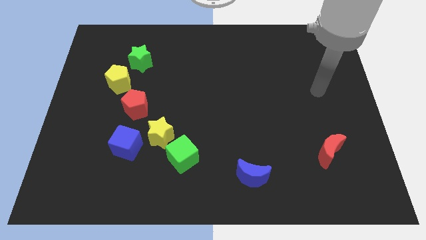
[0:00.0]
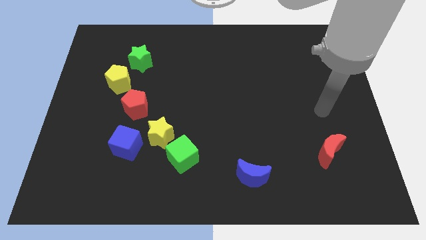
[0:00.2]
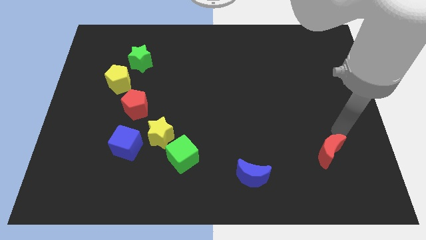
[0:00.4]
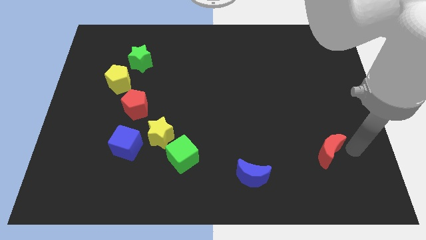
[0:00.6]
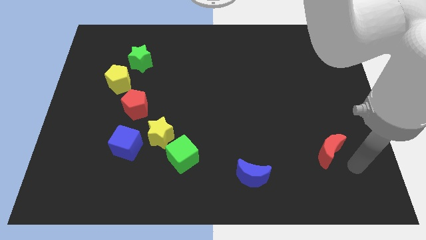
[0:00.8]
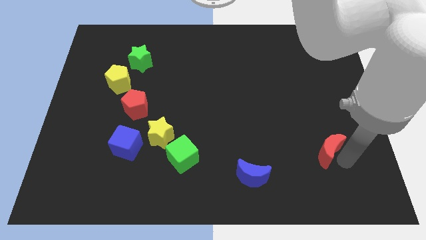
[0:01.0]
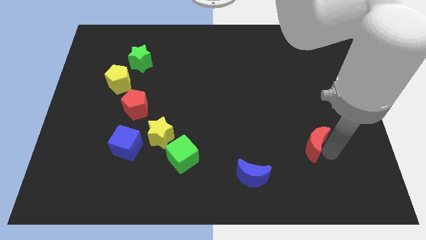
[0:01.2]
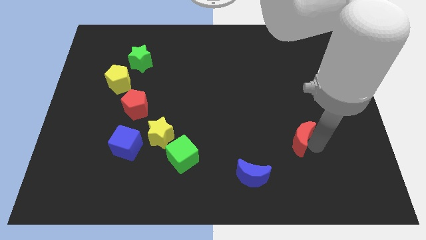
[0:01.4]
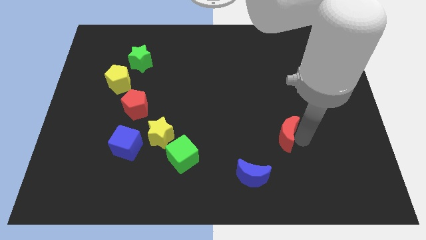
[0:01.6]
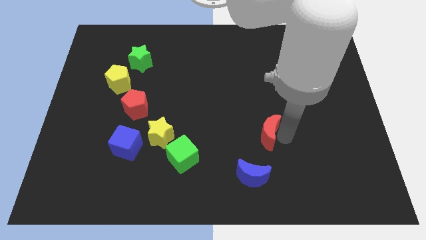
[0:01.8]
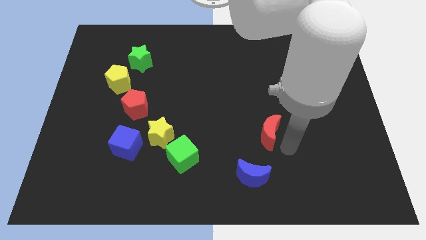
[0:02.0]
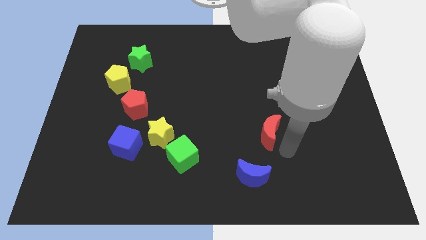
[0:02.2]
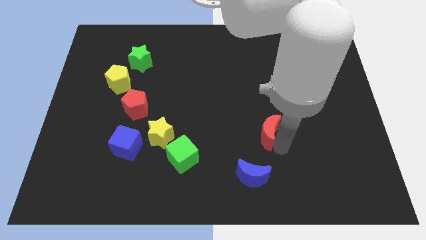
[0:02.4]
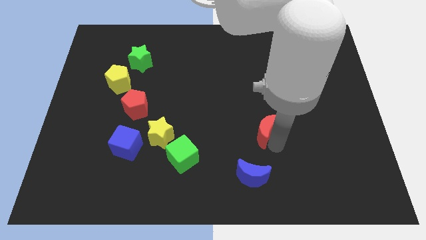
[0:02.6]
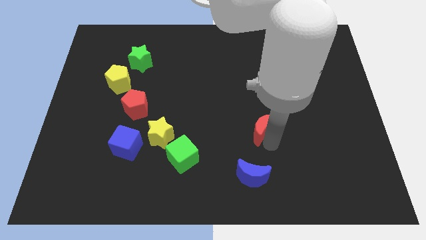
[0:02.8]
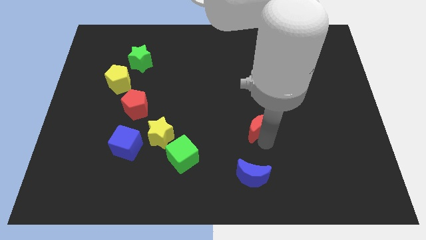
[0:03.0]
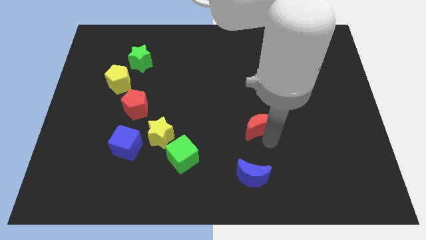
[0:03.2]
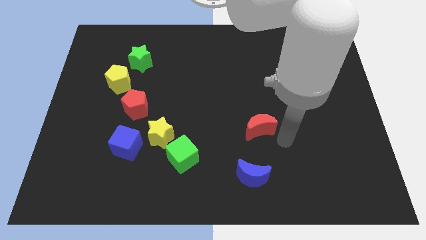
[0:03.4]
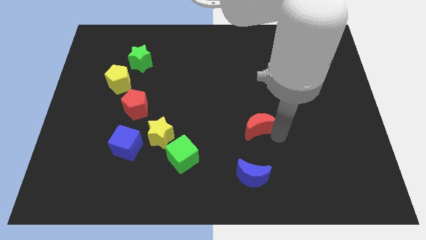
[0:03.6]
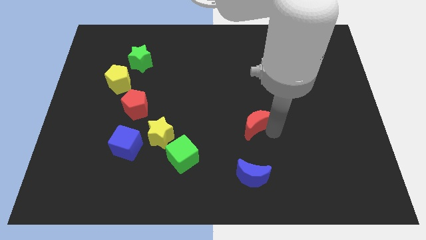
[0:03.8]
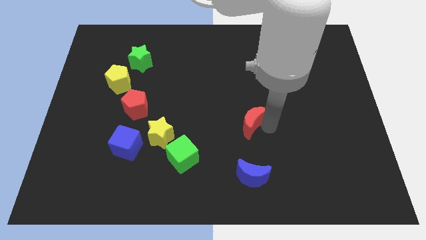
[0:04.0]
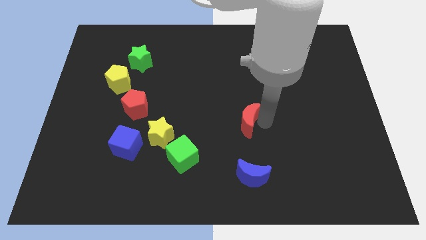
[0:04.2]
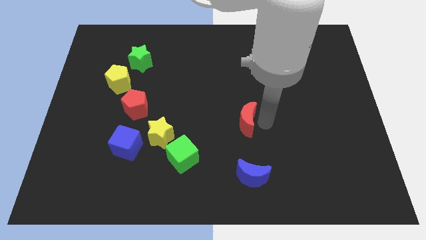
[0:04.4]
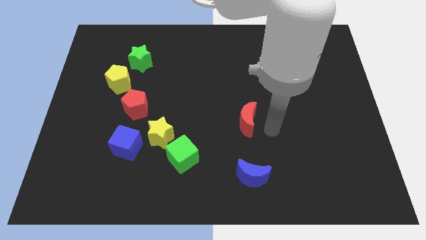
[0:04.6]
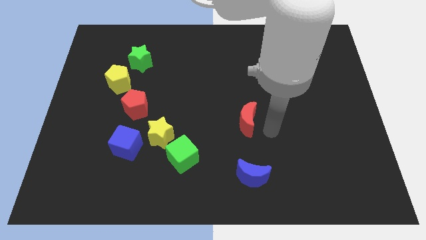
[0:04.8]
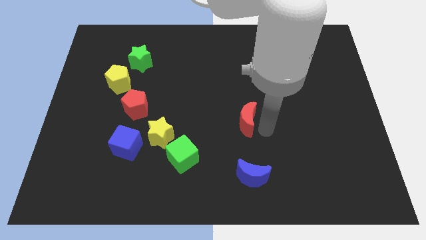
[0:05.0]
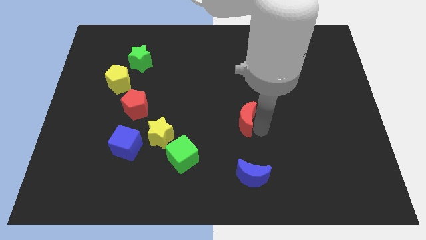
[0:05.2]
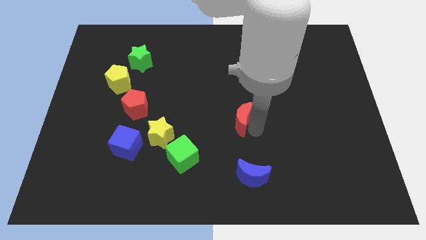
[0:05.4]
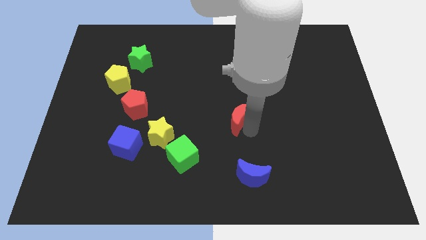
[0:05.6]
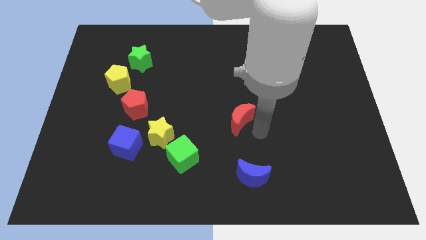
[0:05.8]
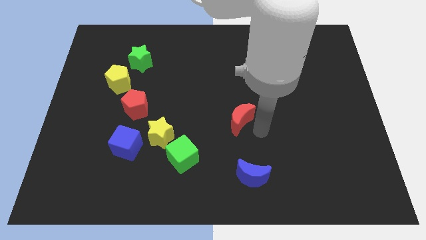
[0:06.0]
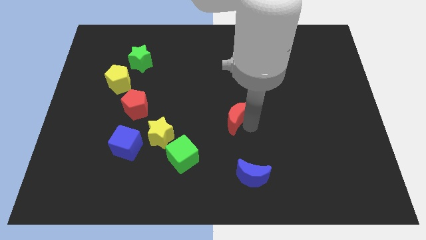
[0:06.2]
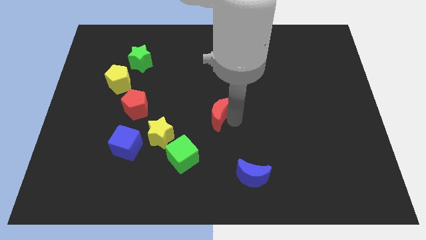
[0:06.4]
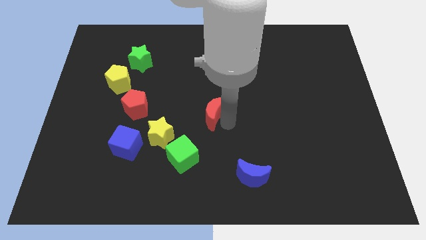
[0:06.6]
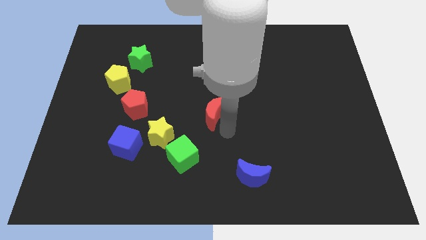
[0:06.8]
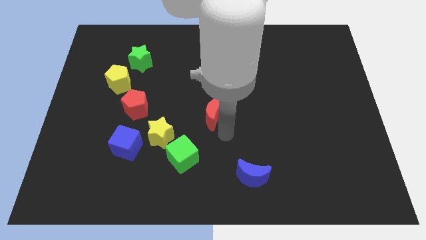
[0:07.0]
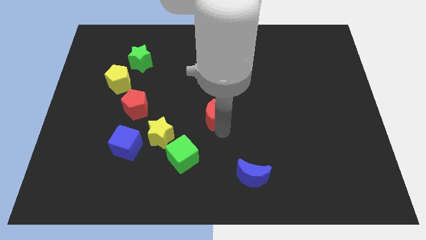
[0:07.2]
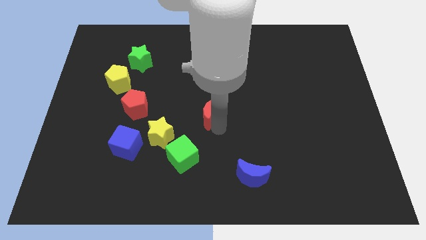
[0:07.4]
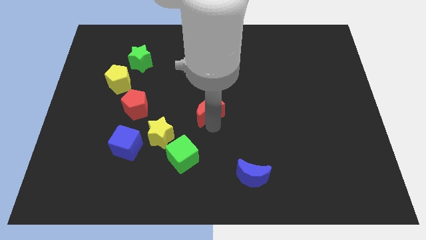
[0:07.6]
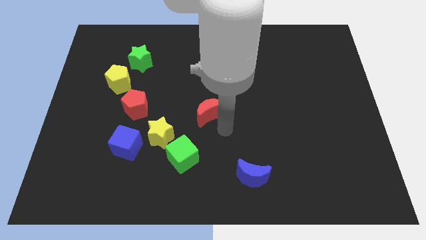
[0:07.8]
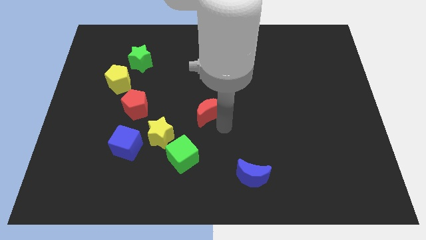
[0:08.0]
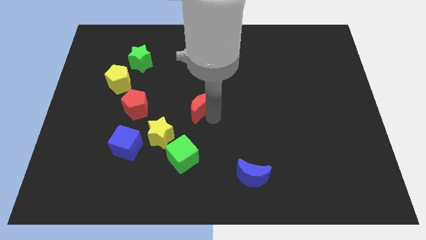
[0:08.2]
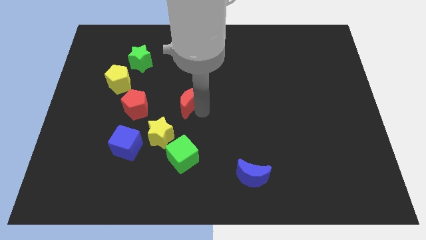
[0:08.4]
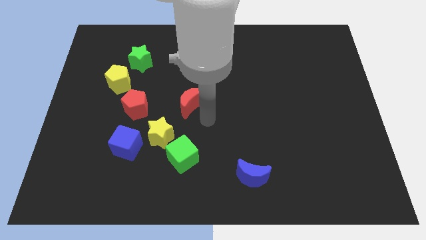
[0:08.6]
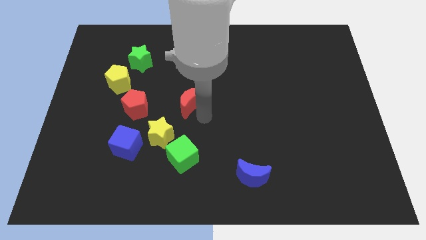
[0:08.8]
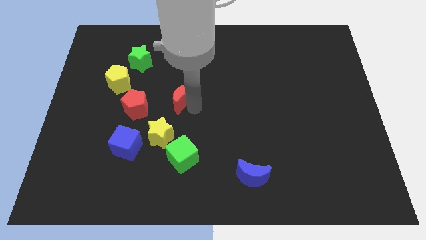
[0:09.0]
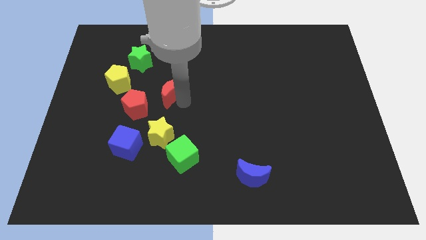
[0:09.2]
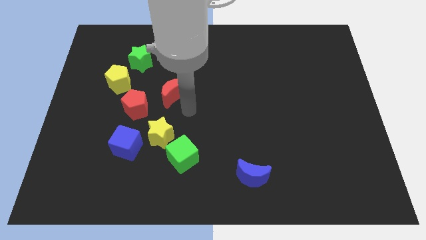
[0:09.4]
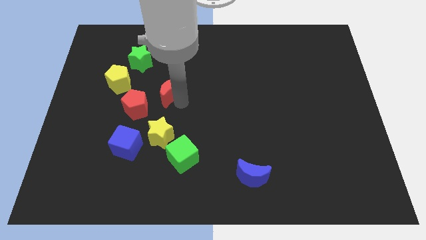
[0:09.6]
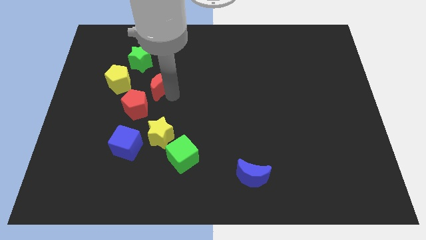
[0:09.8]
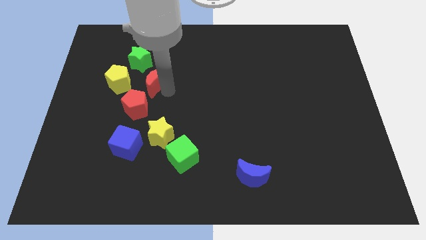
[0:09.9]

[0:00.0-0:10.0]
slide the red moon to the top side of the red pentagon

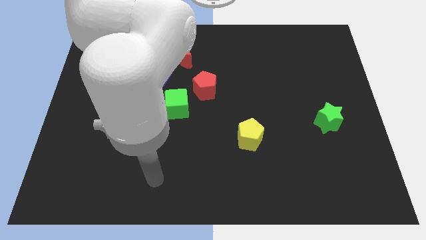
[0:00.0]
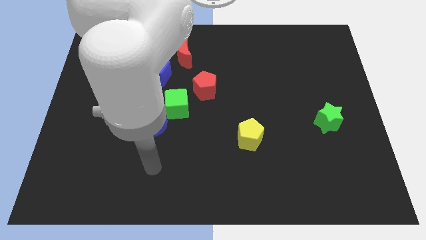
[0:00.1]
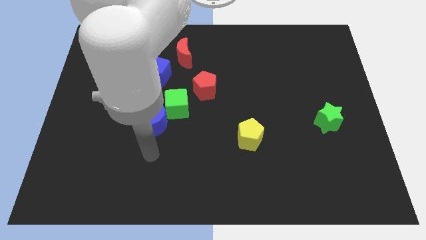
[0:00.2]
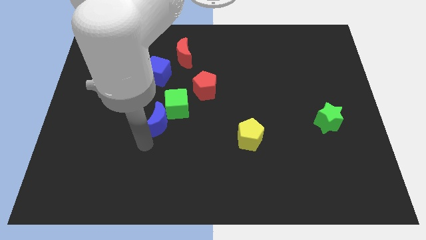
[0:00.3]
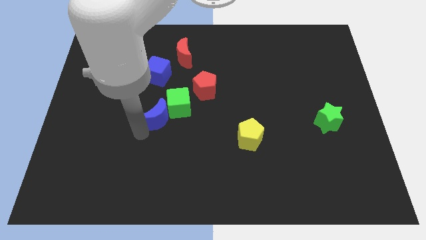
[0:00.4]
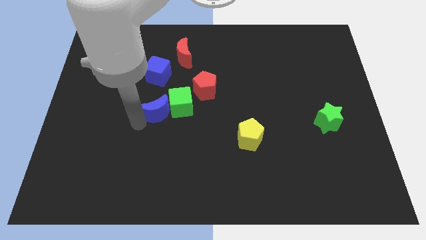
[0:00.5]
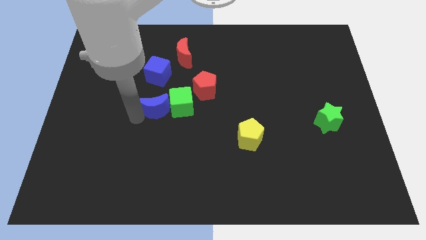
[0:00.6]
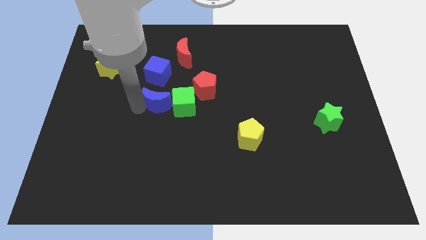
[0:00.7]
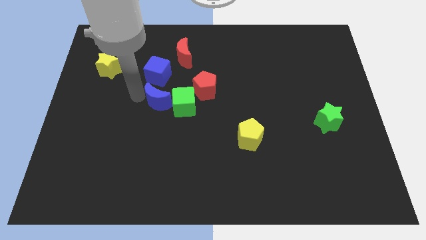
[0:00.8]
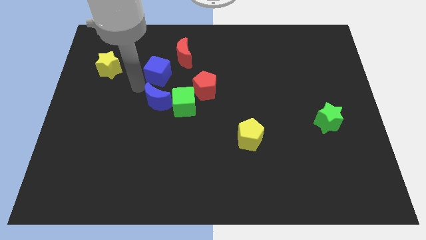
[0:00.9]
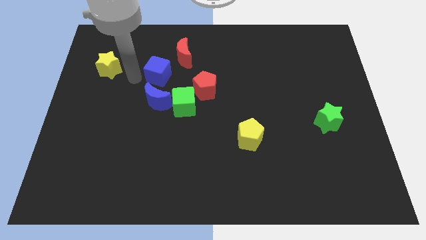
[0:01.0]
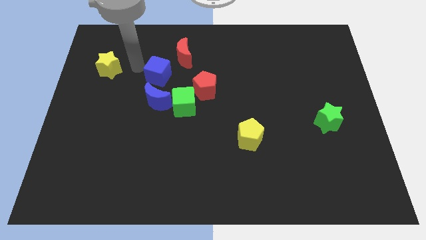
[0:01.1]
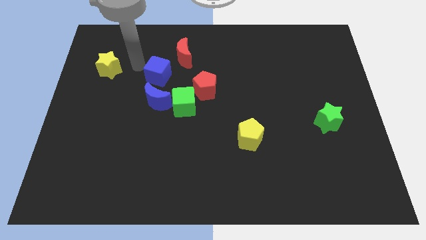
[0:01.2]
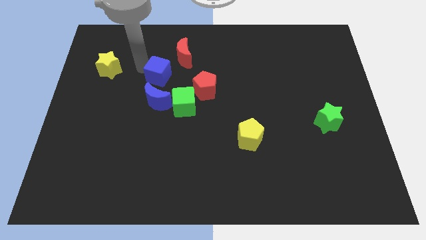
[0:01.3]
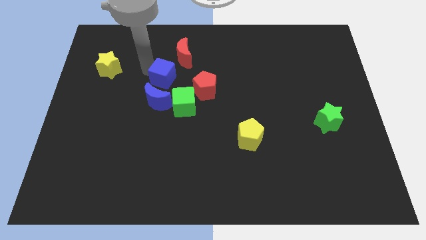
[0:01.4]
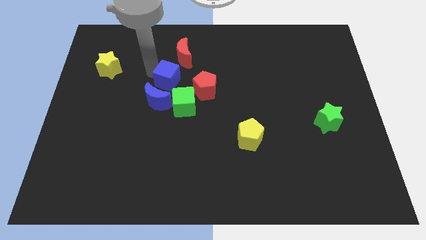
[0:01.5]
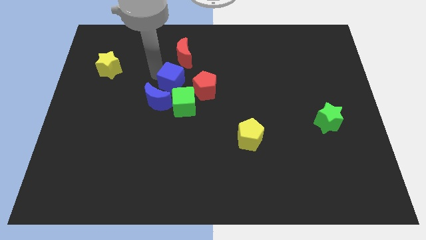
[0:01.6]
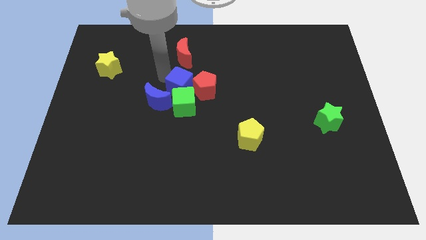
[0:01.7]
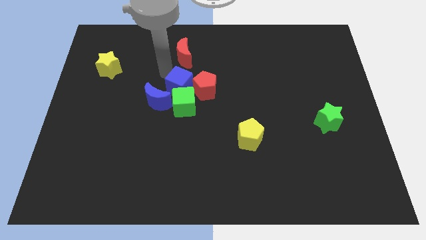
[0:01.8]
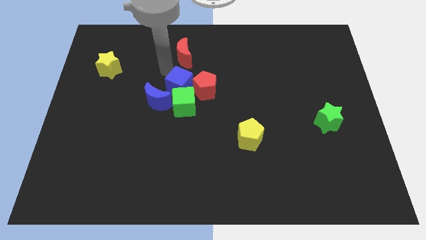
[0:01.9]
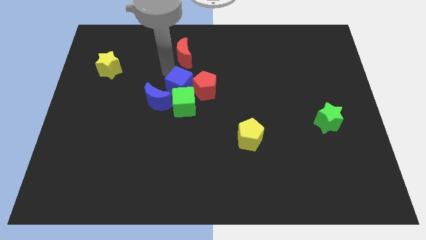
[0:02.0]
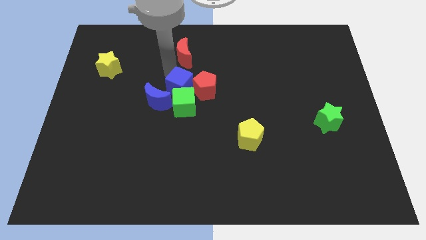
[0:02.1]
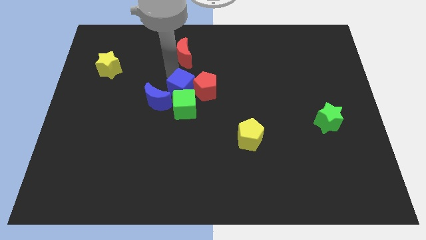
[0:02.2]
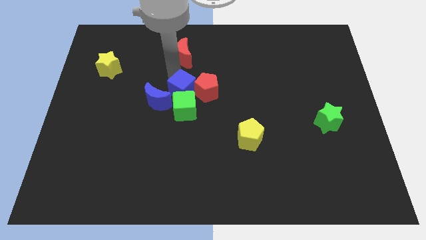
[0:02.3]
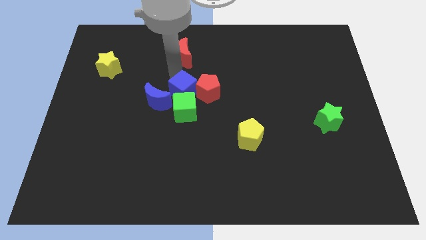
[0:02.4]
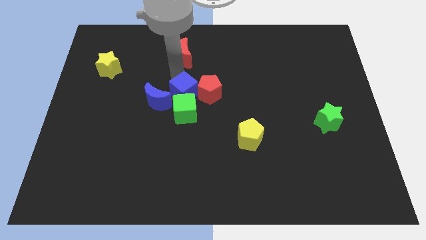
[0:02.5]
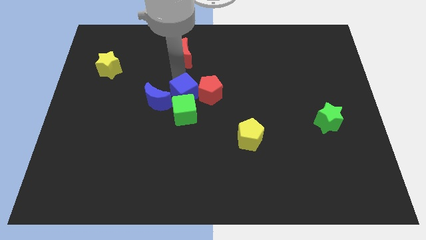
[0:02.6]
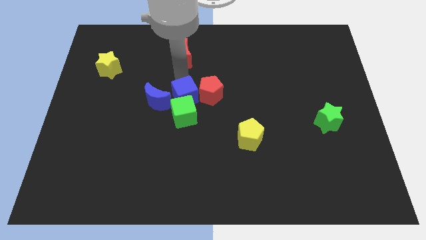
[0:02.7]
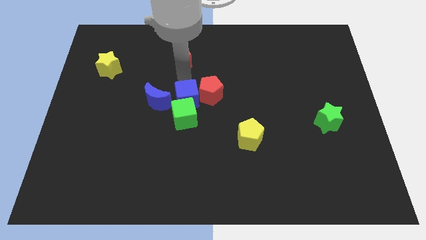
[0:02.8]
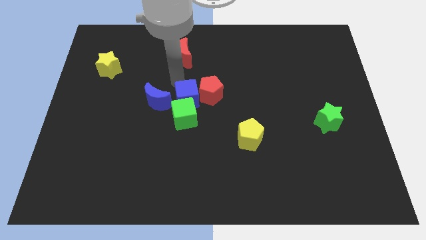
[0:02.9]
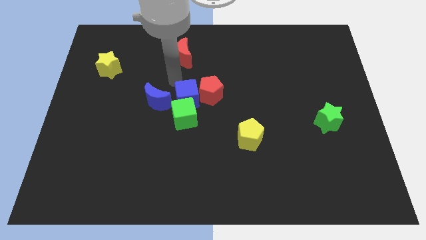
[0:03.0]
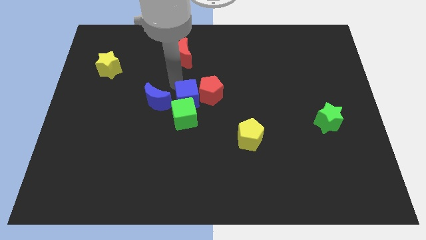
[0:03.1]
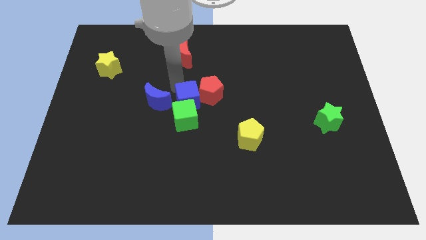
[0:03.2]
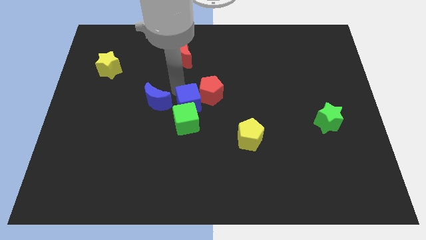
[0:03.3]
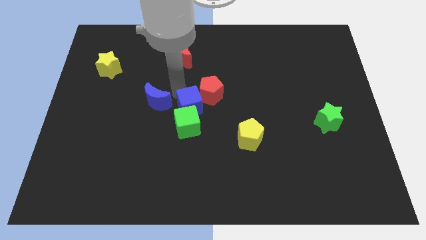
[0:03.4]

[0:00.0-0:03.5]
slide the blue cube to the bottom of the red pentagon
